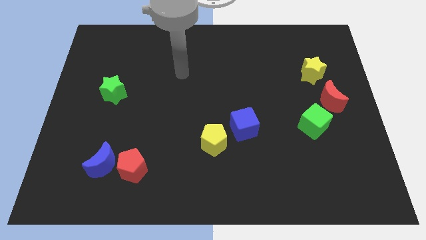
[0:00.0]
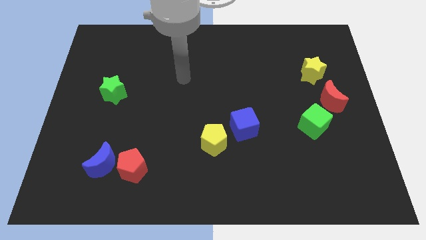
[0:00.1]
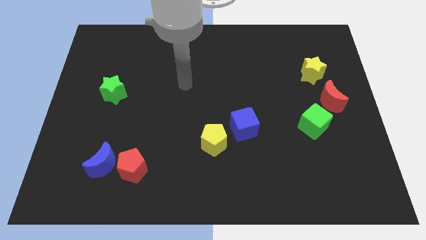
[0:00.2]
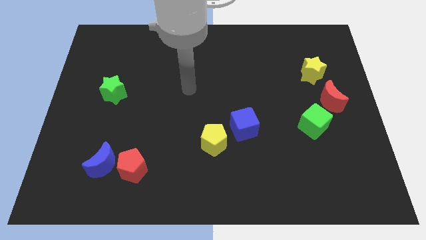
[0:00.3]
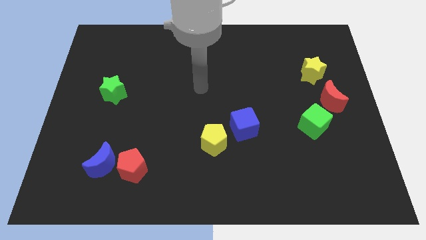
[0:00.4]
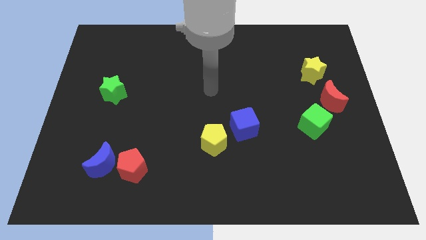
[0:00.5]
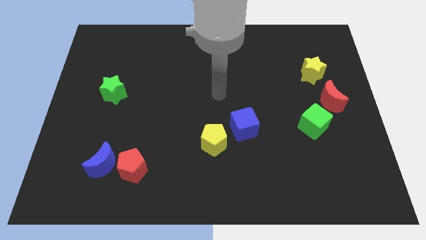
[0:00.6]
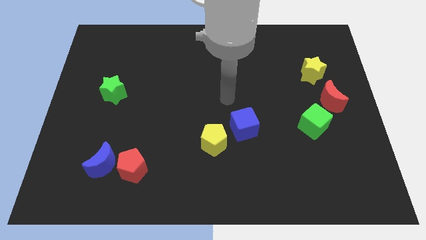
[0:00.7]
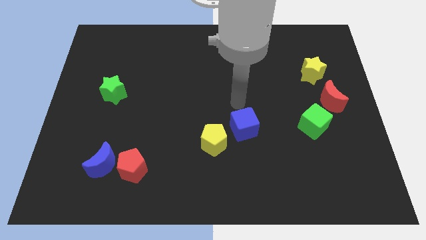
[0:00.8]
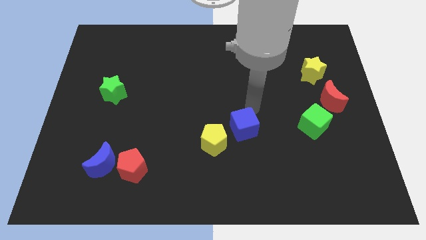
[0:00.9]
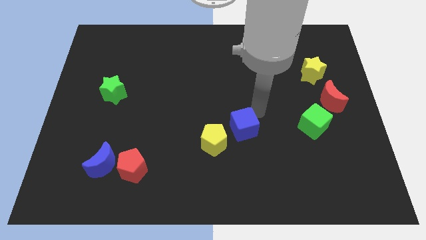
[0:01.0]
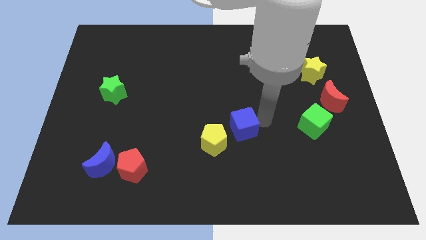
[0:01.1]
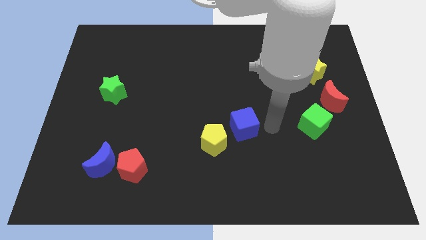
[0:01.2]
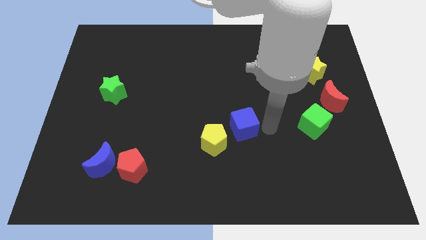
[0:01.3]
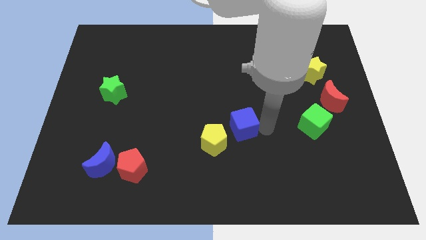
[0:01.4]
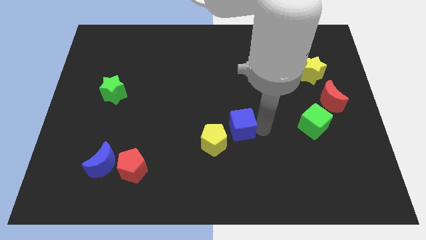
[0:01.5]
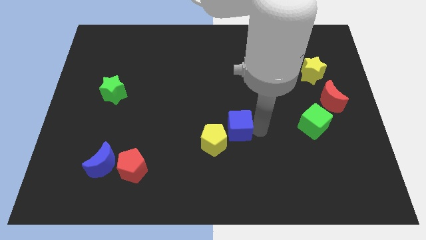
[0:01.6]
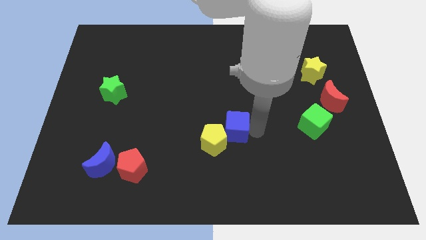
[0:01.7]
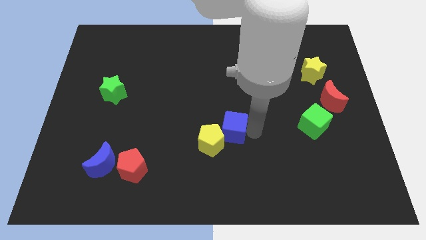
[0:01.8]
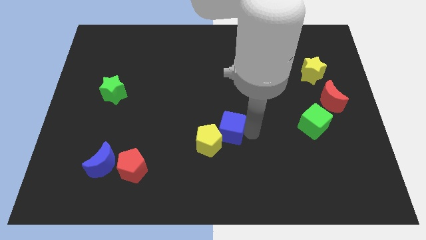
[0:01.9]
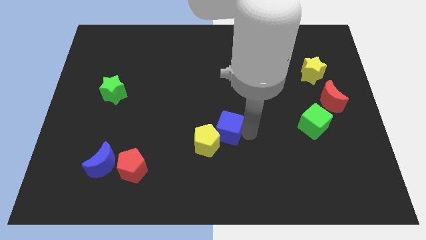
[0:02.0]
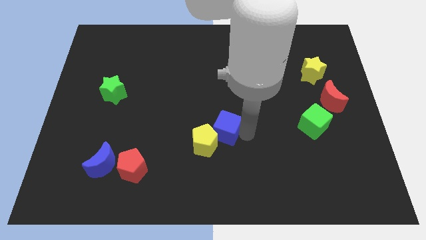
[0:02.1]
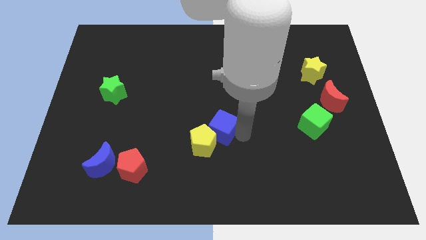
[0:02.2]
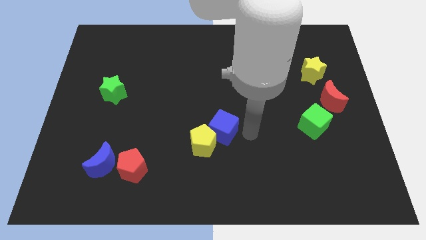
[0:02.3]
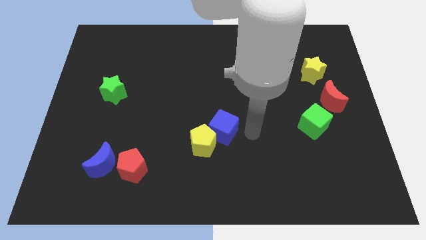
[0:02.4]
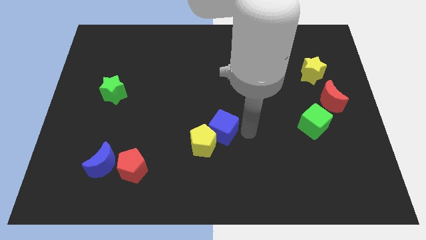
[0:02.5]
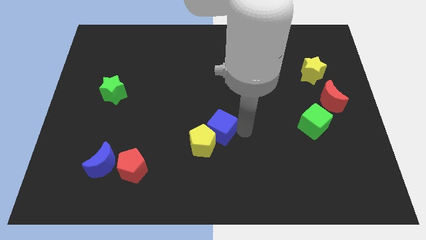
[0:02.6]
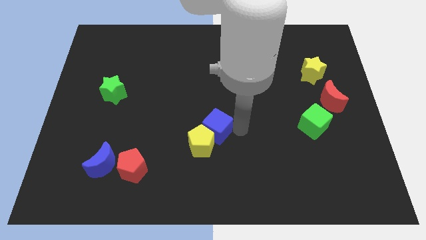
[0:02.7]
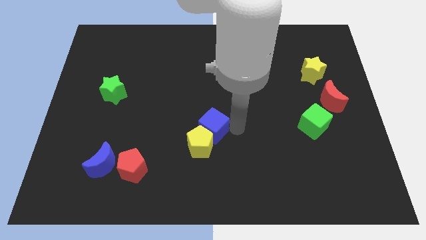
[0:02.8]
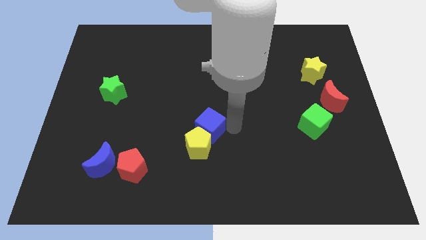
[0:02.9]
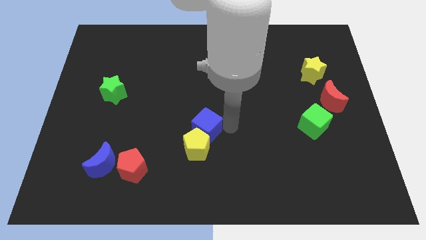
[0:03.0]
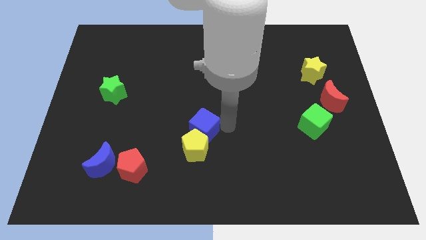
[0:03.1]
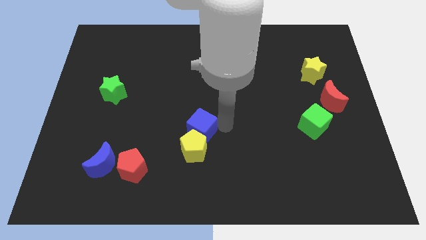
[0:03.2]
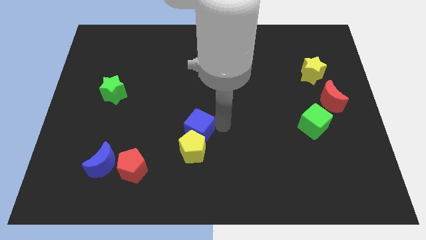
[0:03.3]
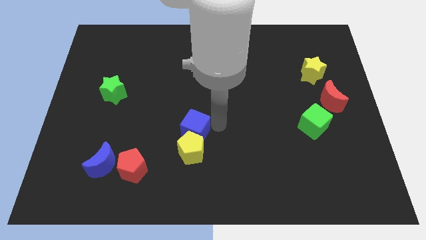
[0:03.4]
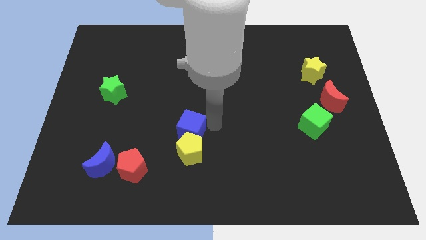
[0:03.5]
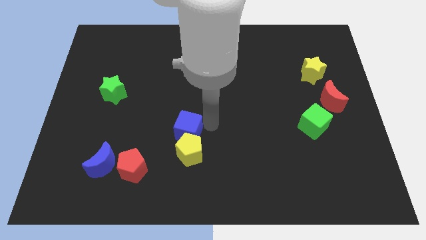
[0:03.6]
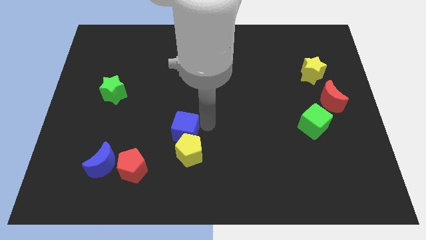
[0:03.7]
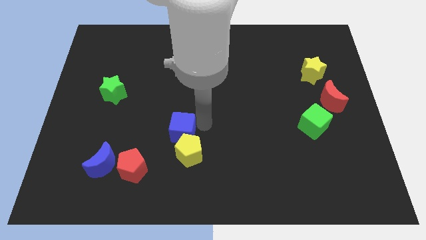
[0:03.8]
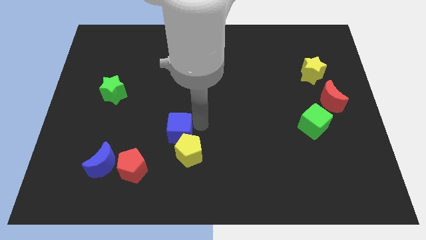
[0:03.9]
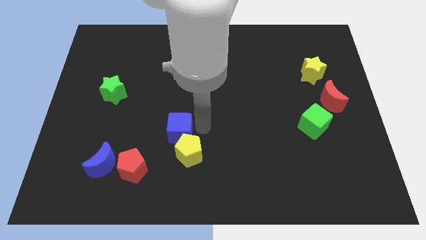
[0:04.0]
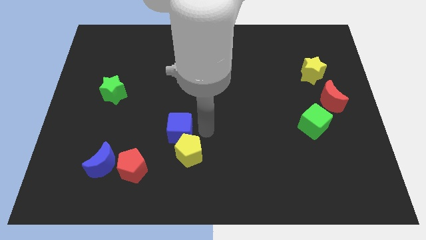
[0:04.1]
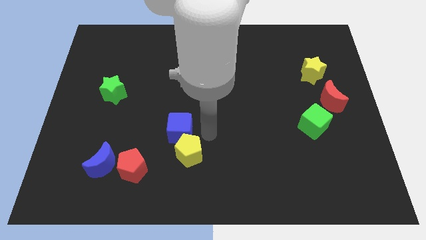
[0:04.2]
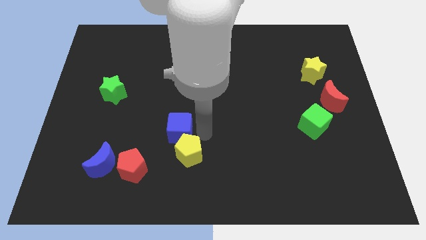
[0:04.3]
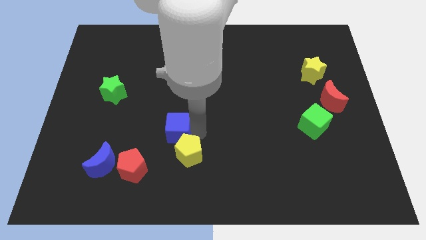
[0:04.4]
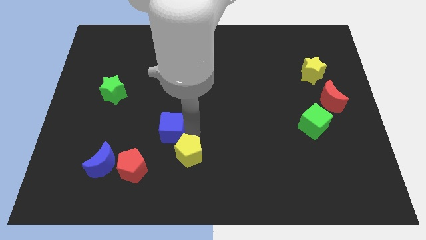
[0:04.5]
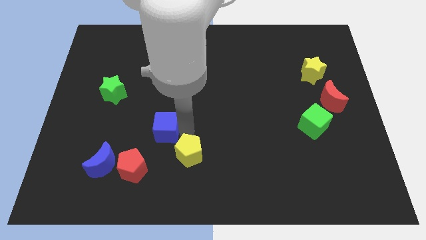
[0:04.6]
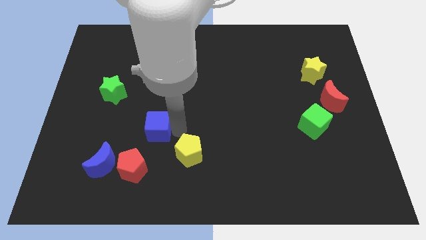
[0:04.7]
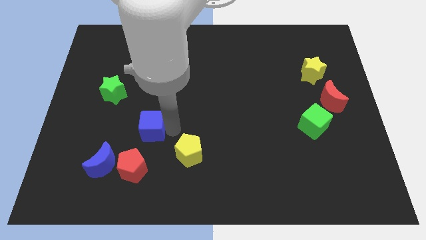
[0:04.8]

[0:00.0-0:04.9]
slide the blue cube to the left

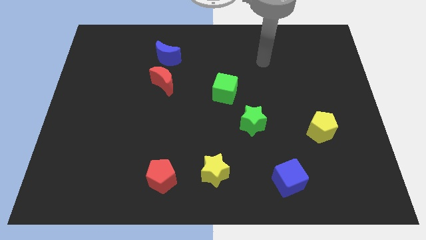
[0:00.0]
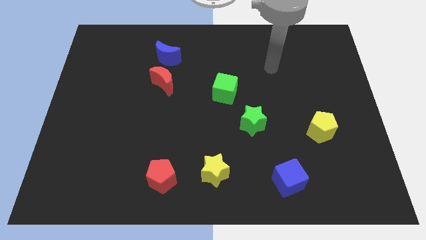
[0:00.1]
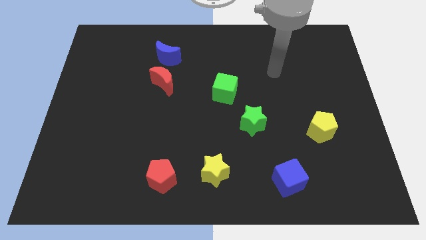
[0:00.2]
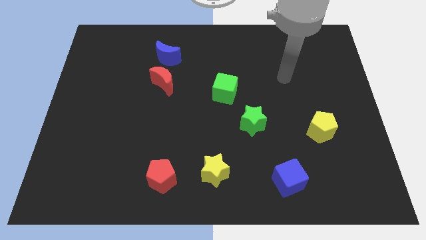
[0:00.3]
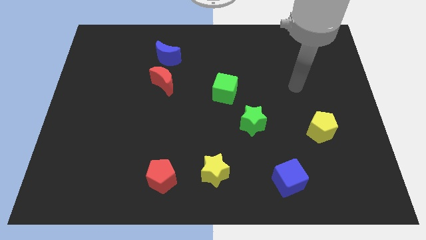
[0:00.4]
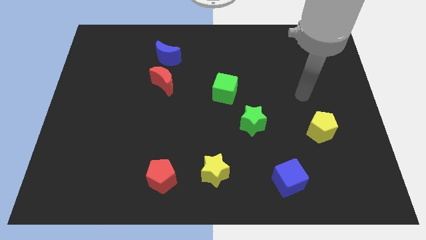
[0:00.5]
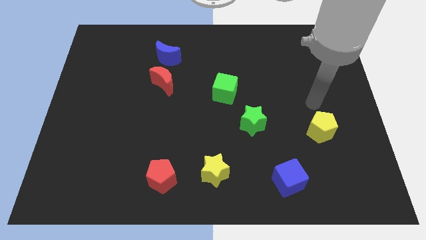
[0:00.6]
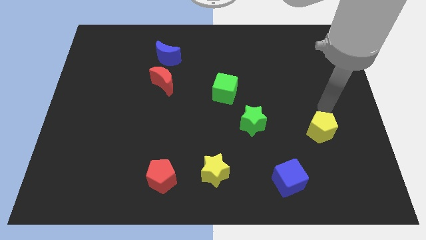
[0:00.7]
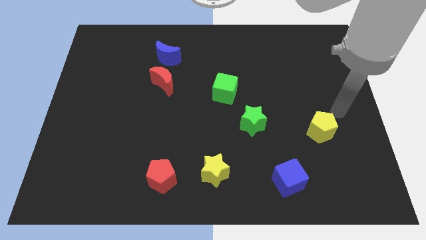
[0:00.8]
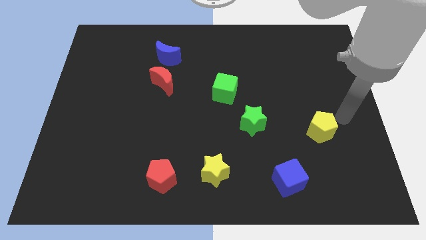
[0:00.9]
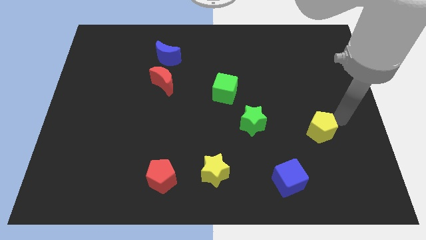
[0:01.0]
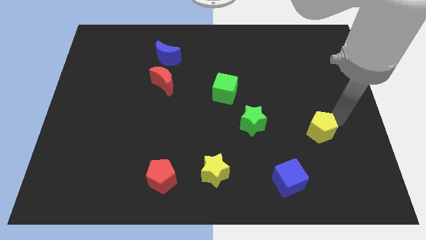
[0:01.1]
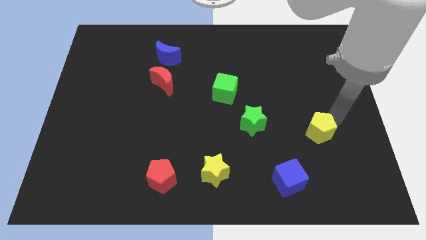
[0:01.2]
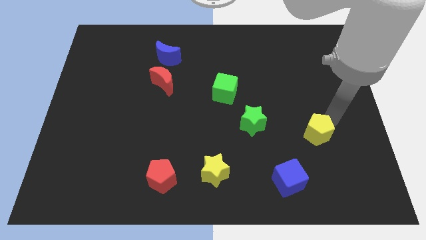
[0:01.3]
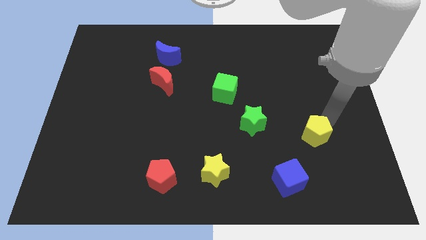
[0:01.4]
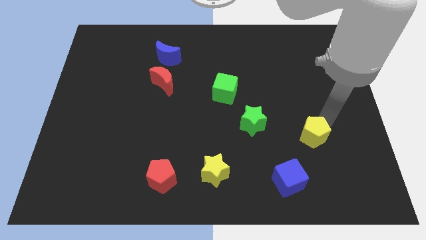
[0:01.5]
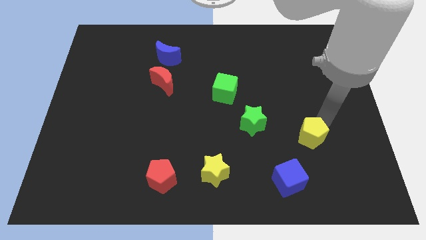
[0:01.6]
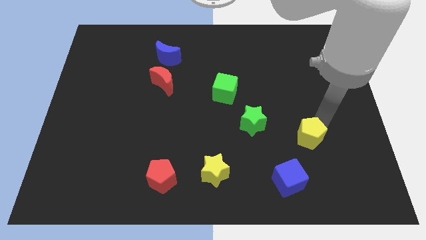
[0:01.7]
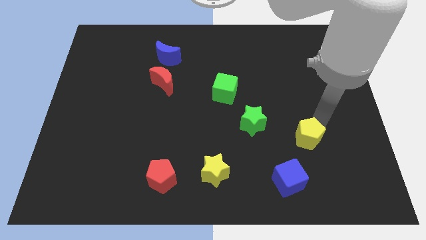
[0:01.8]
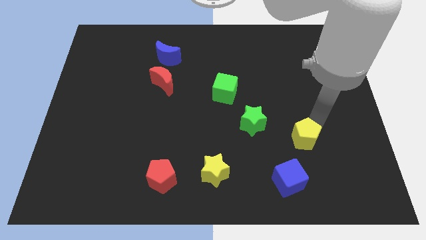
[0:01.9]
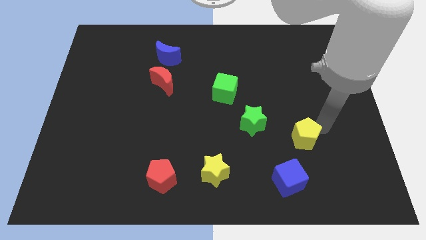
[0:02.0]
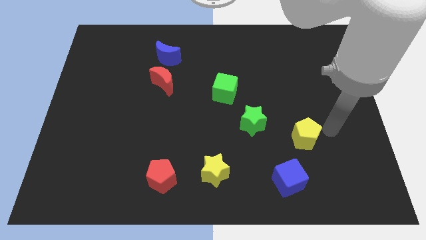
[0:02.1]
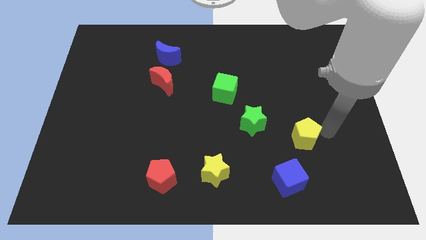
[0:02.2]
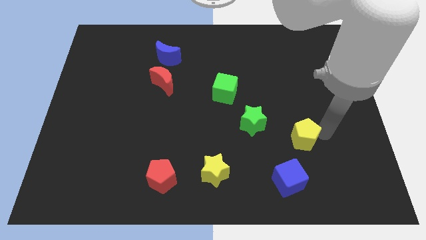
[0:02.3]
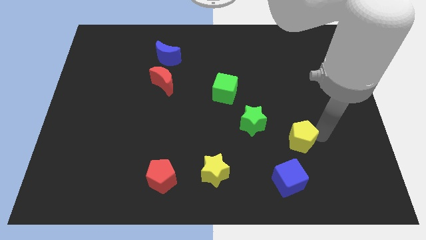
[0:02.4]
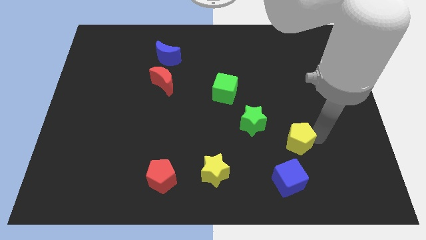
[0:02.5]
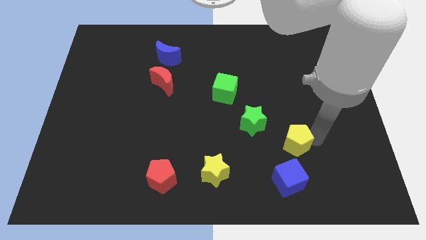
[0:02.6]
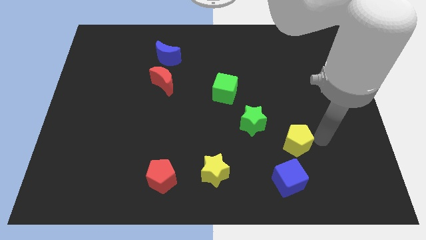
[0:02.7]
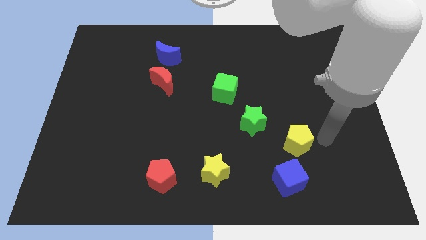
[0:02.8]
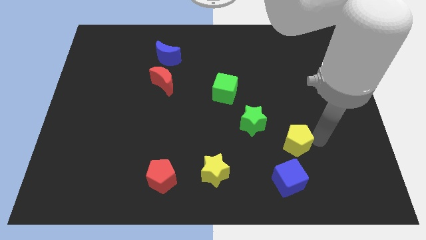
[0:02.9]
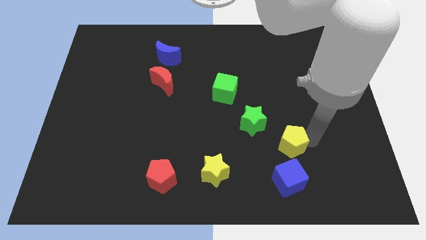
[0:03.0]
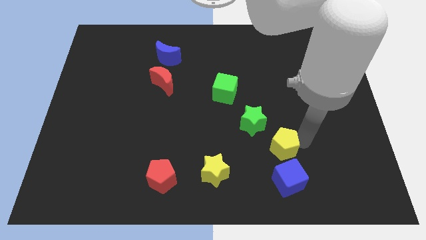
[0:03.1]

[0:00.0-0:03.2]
slightly push the yellow pentagon to the left
